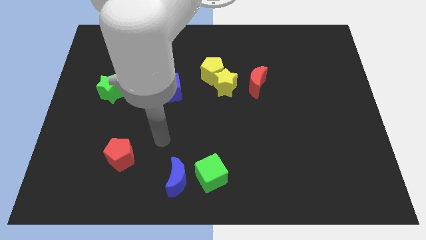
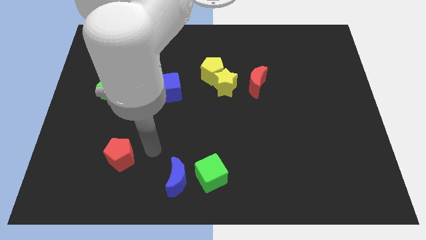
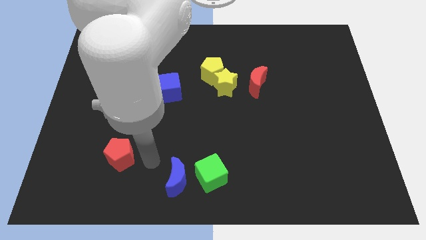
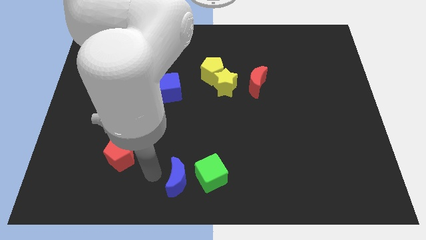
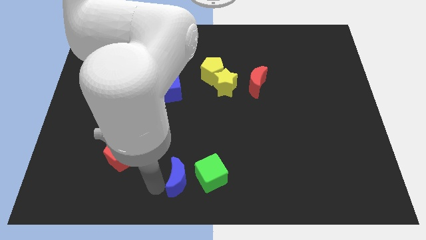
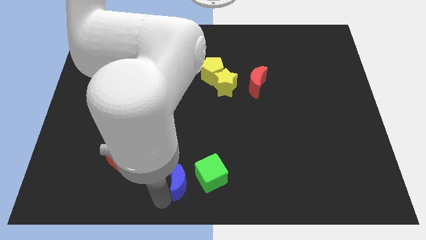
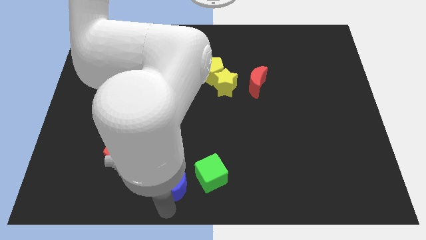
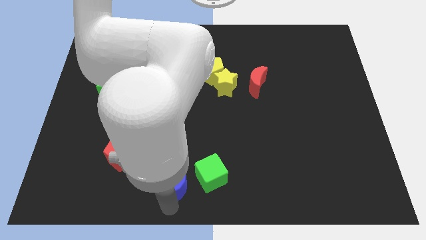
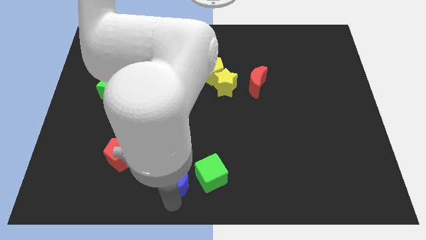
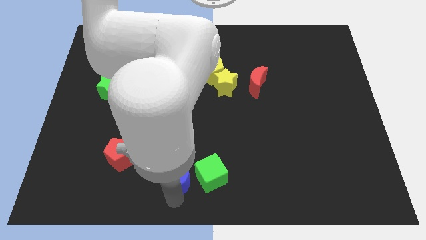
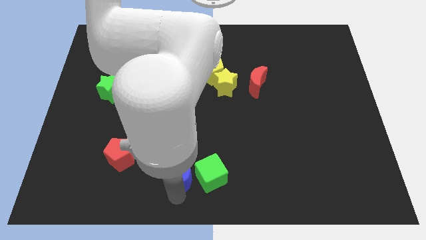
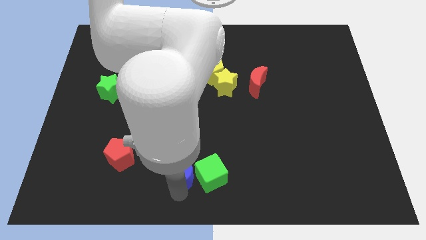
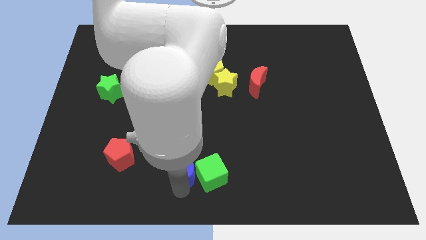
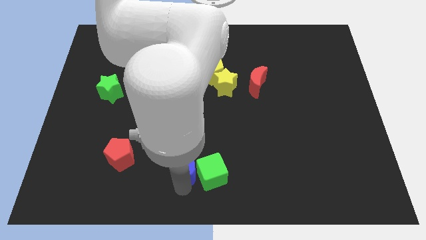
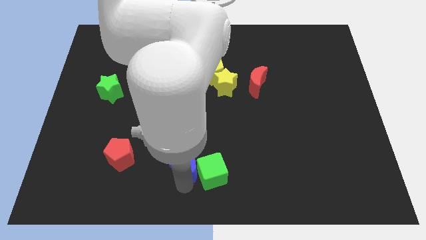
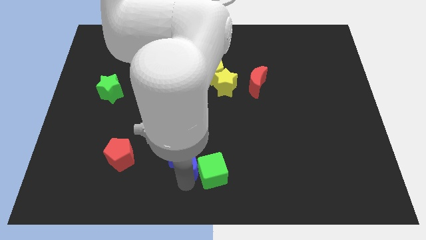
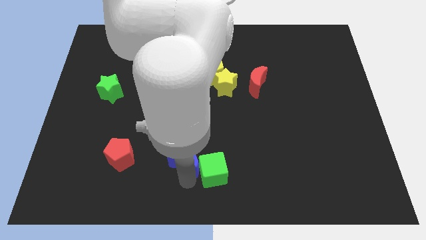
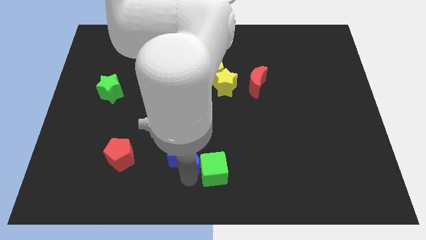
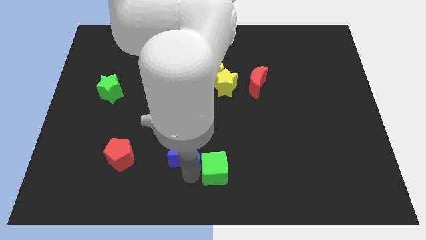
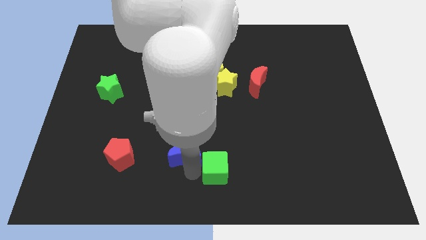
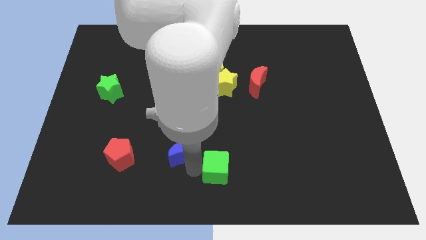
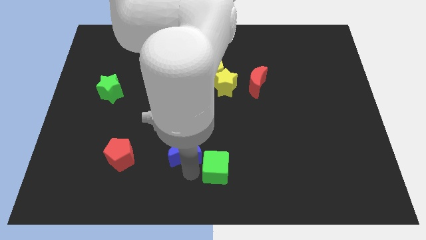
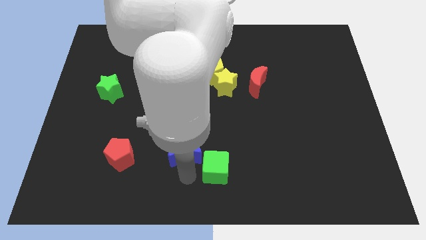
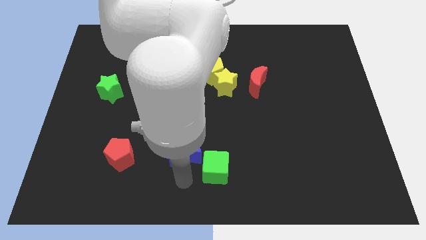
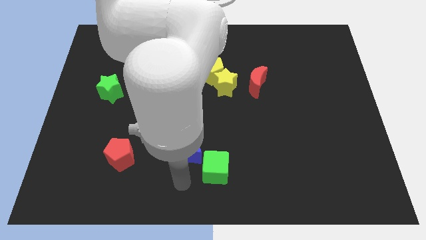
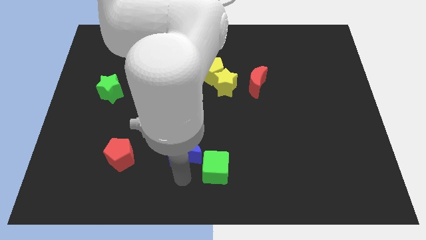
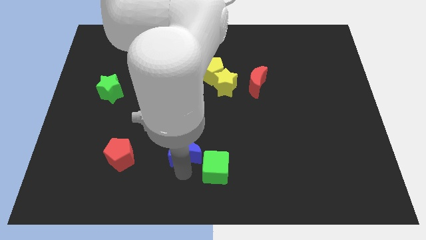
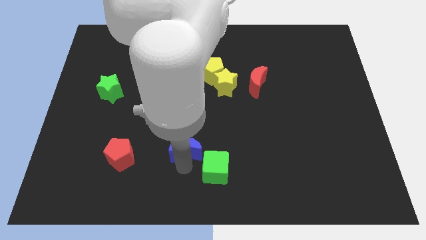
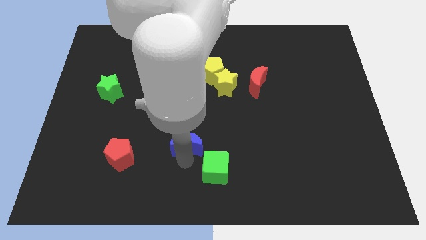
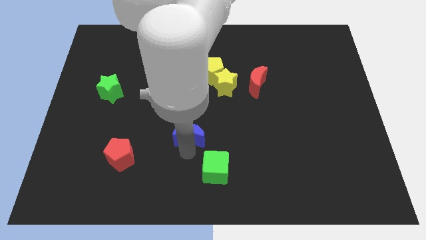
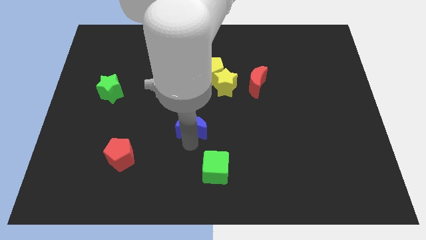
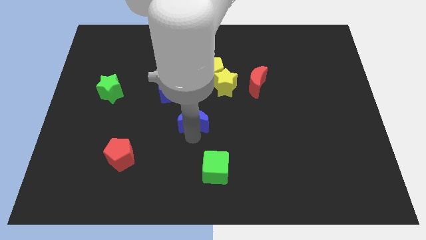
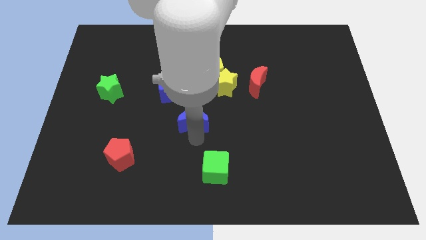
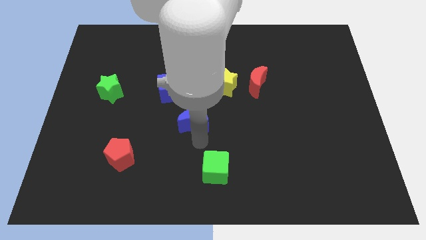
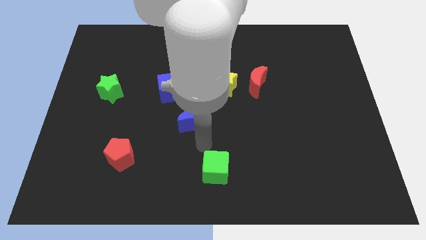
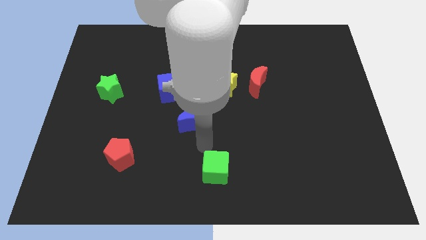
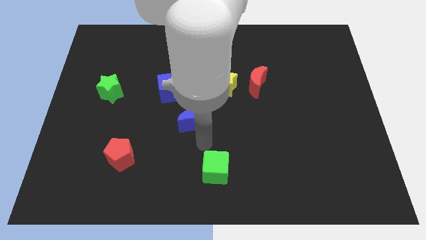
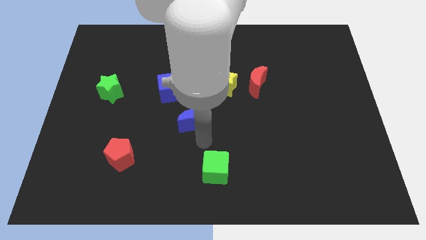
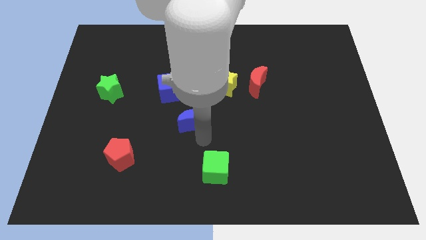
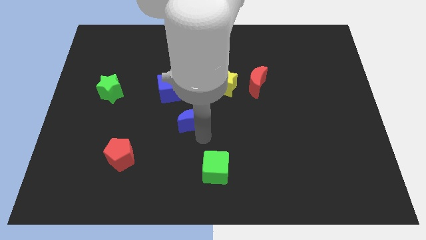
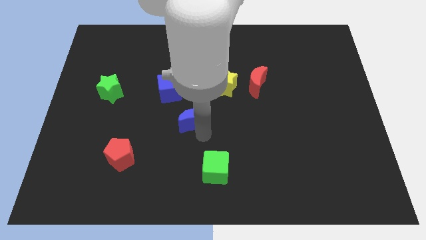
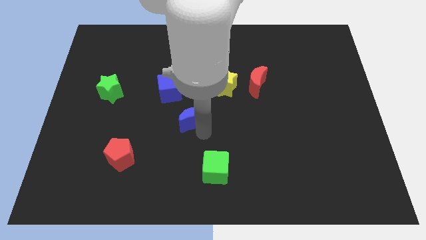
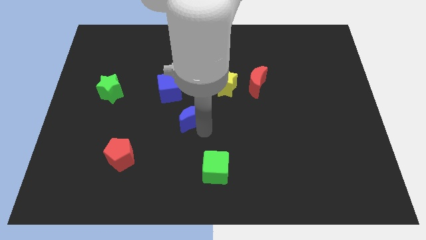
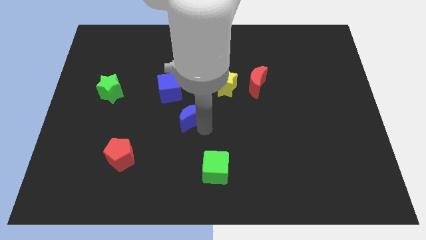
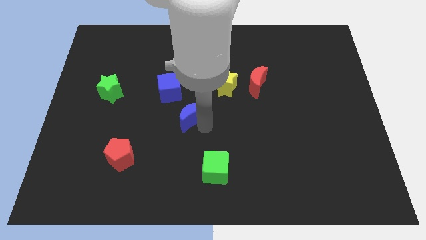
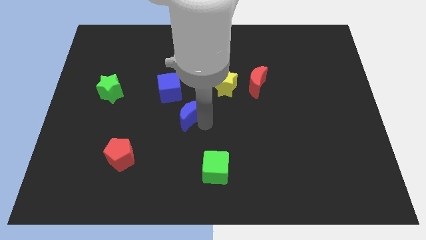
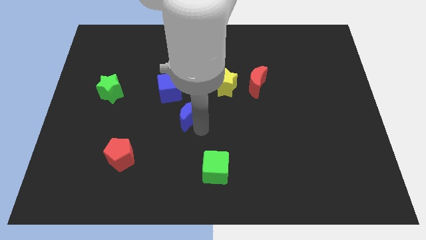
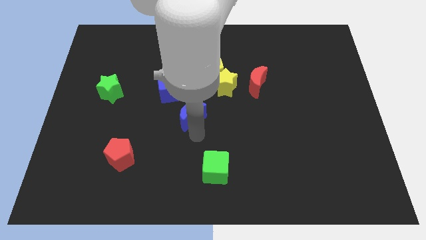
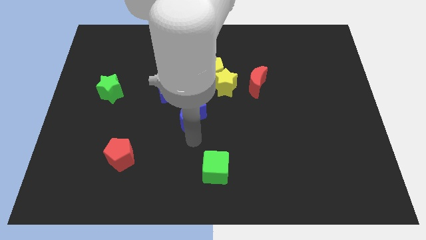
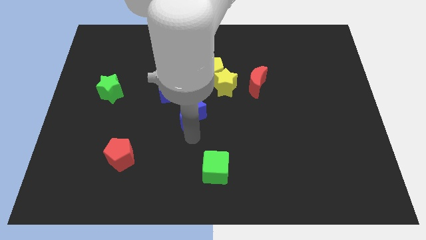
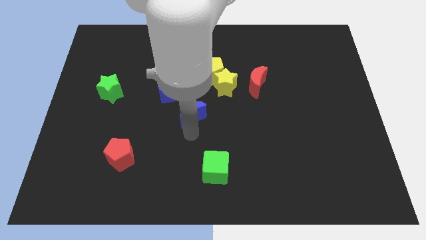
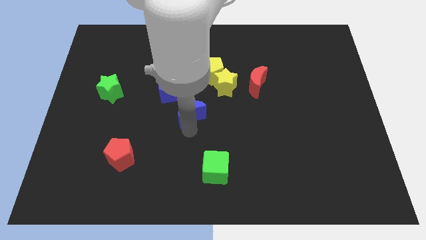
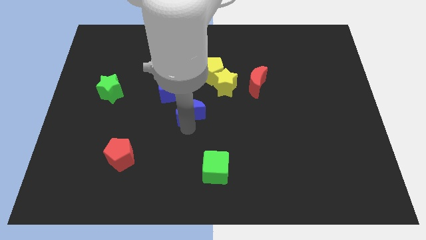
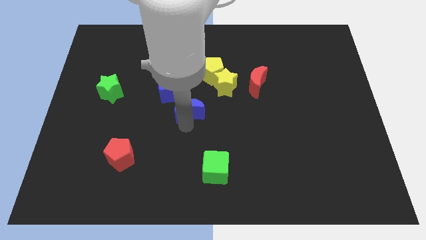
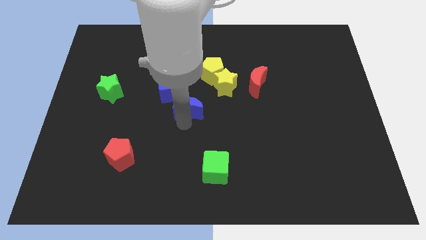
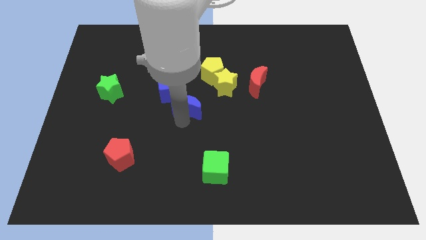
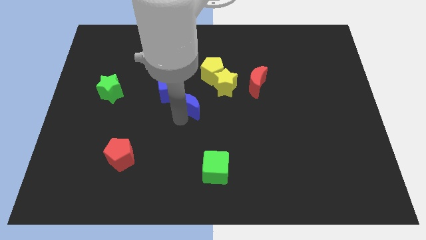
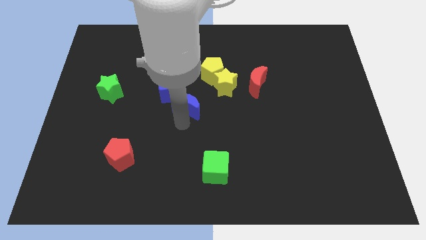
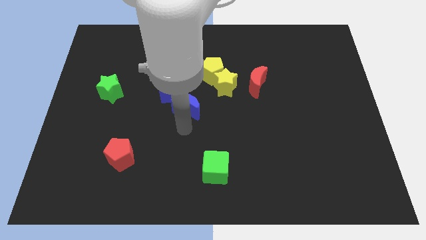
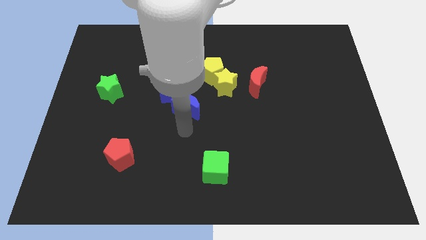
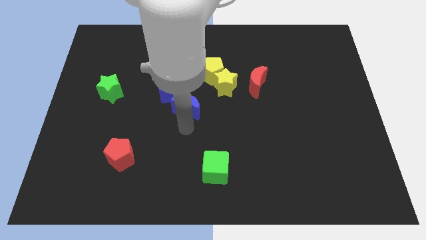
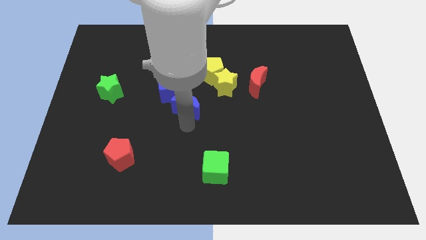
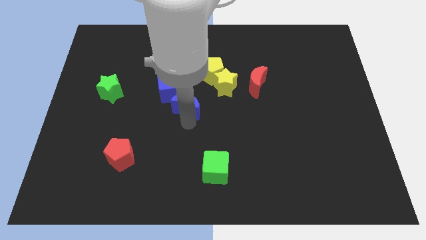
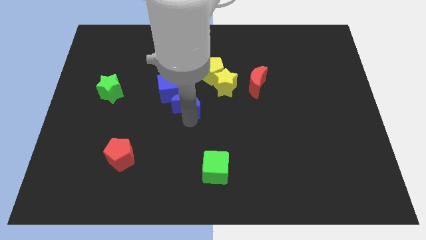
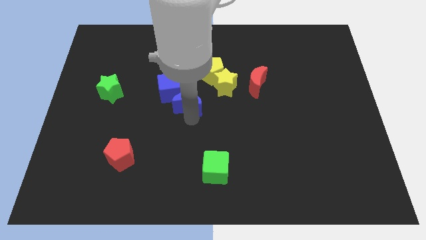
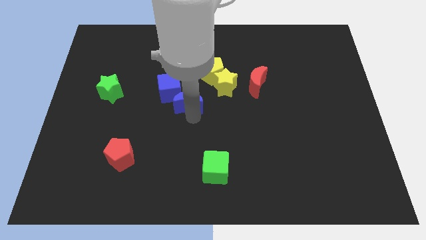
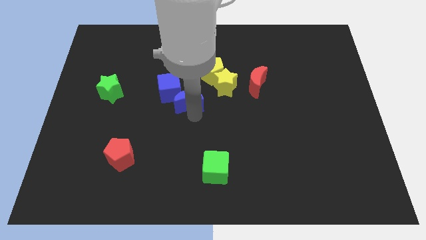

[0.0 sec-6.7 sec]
push the blue moon up

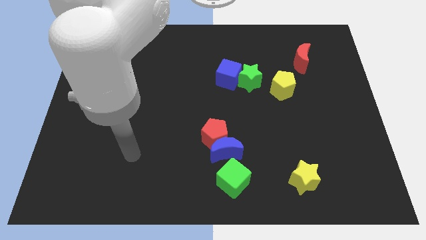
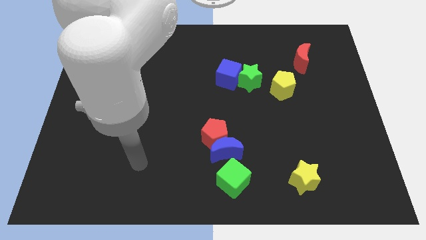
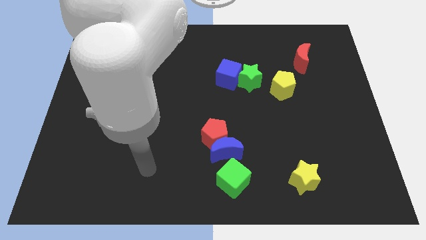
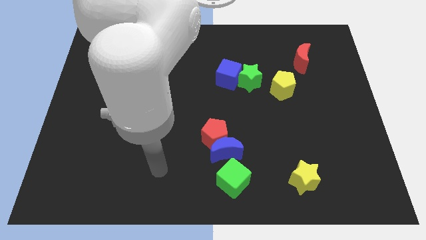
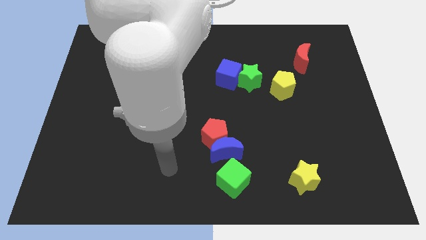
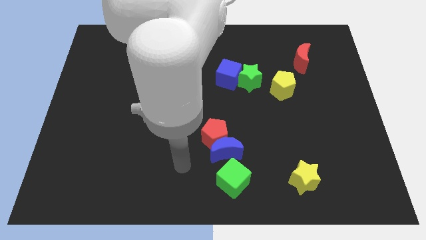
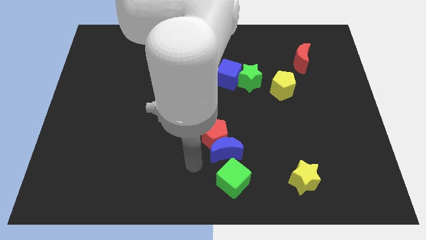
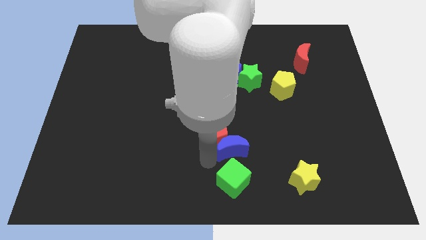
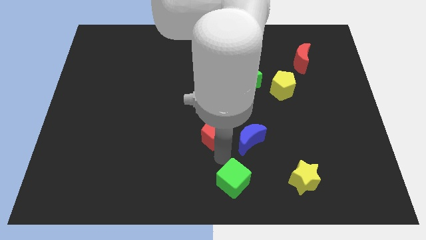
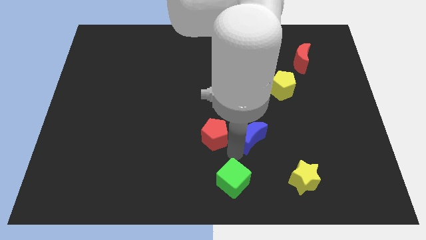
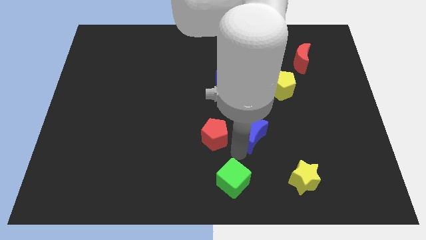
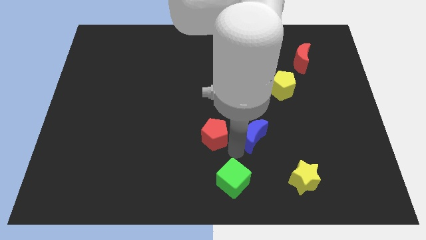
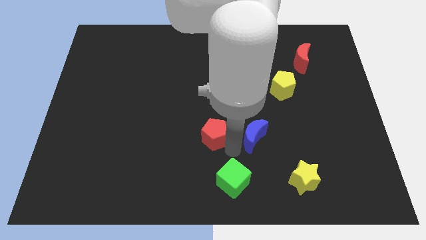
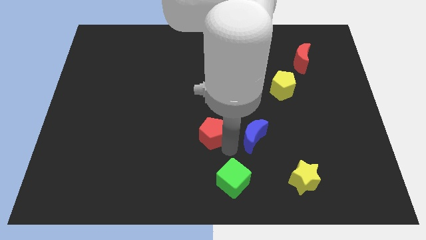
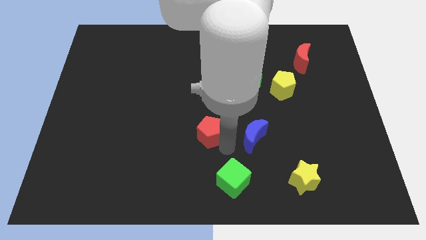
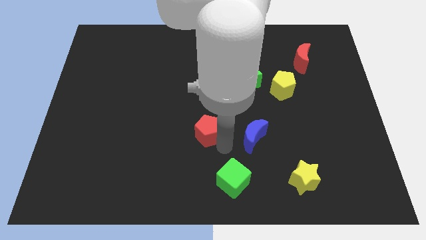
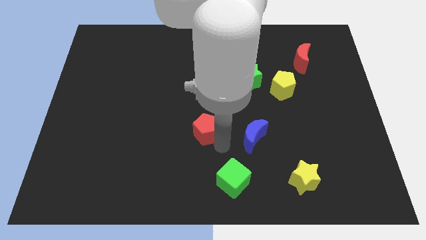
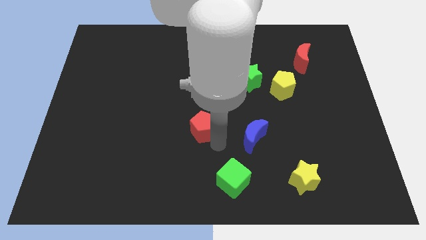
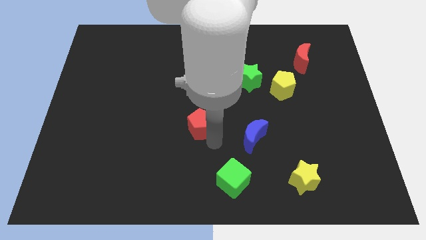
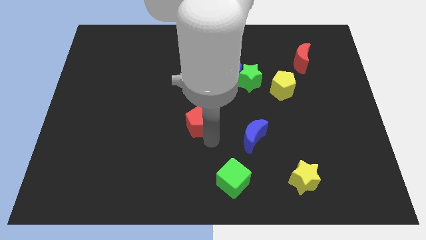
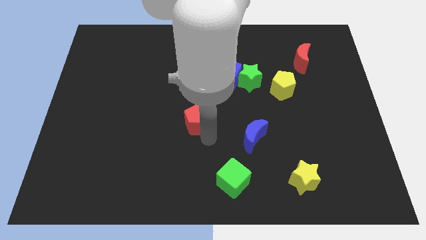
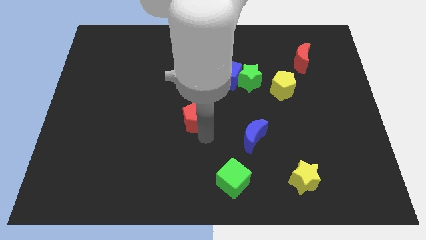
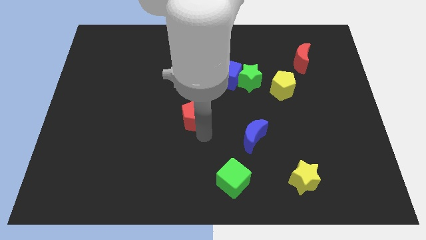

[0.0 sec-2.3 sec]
move the red pentagon slightly diagonally up and to the left
